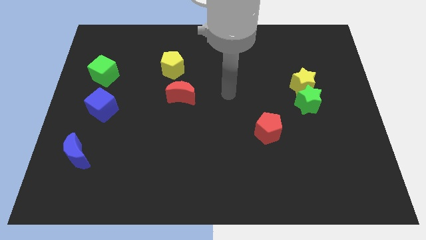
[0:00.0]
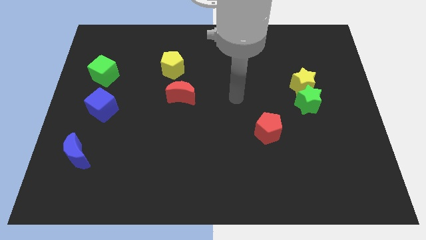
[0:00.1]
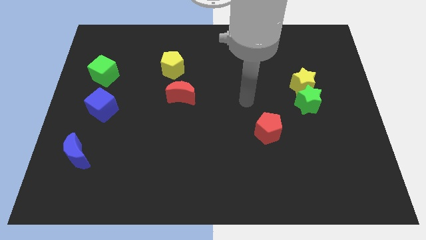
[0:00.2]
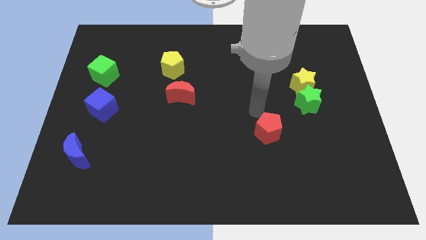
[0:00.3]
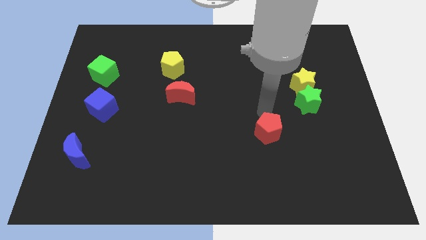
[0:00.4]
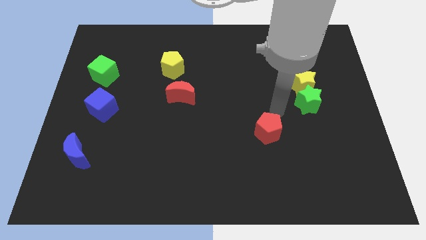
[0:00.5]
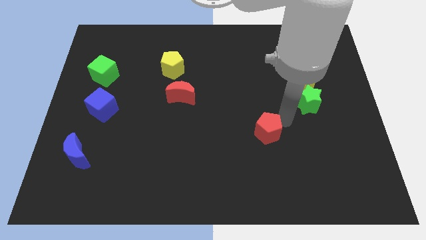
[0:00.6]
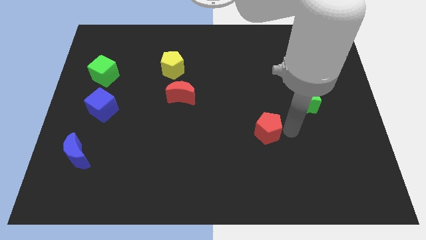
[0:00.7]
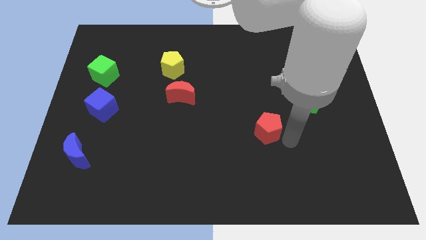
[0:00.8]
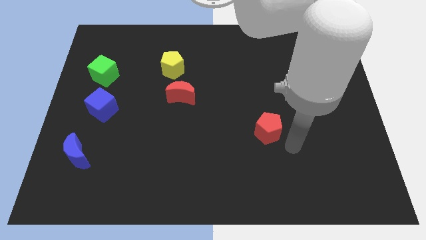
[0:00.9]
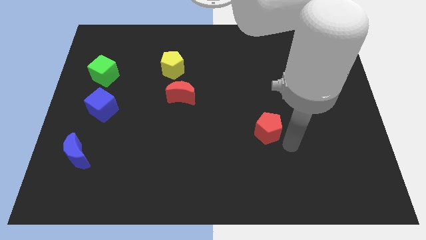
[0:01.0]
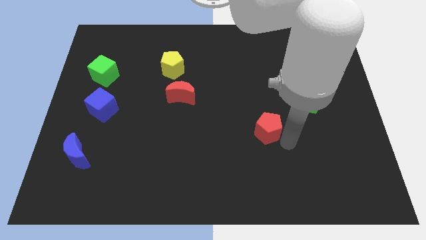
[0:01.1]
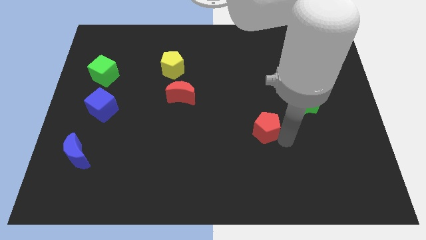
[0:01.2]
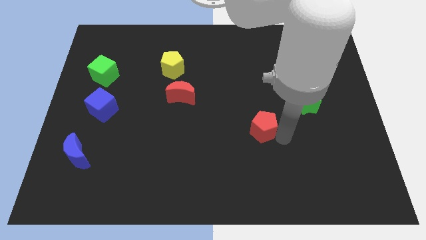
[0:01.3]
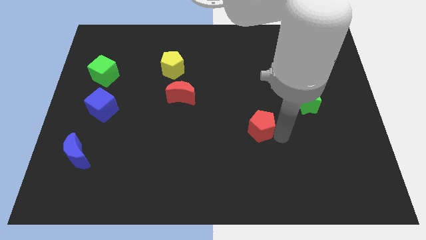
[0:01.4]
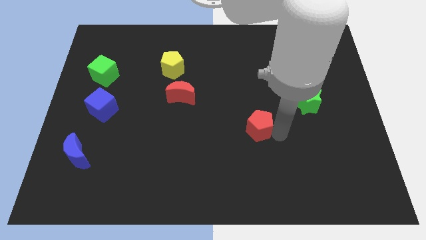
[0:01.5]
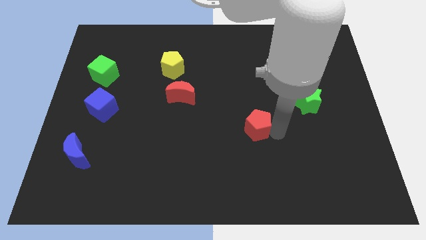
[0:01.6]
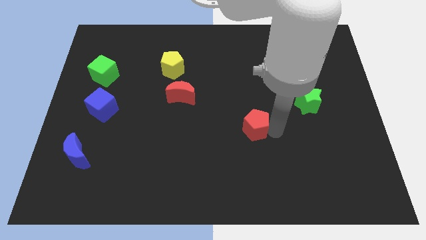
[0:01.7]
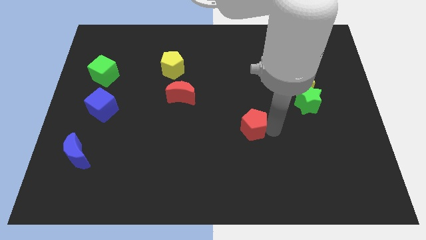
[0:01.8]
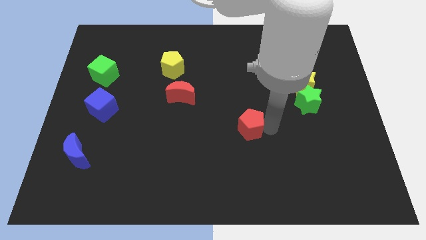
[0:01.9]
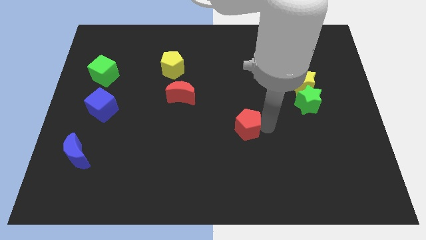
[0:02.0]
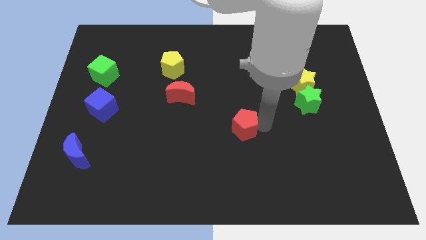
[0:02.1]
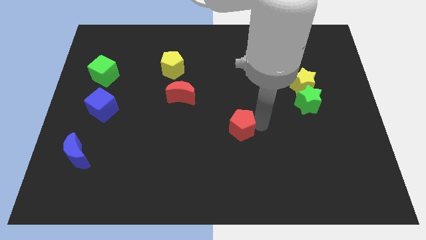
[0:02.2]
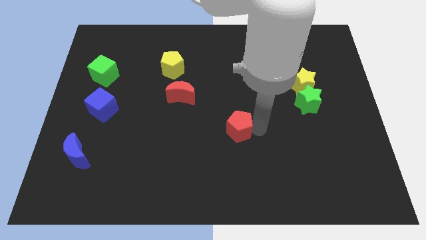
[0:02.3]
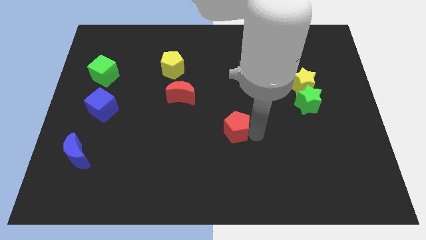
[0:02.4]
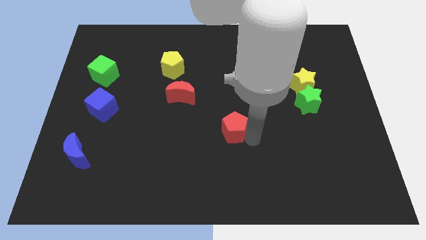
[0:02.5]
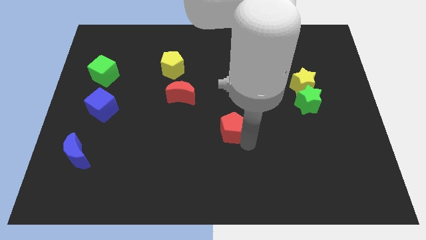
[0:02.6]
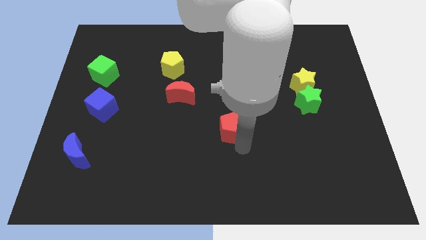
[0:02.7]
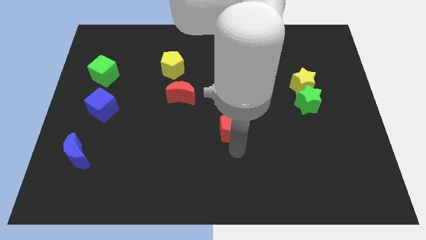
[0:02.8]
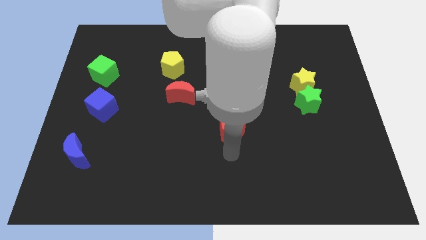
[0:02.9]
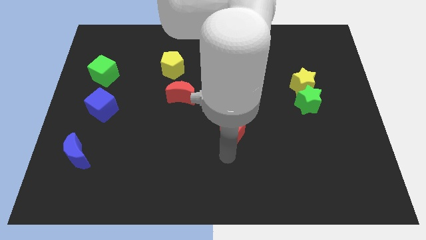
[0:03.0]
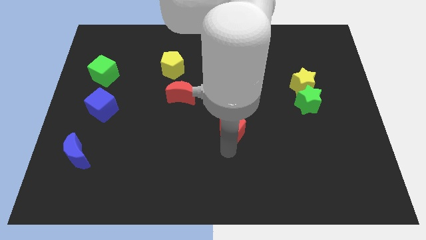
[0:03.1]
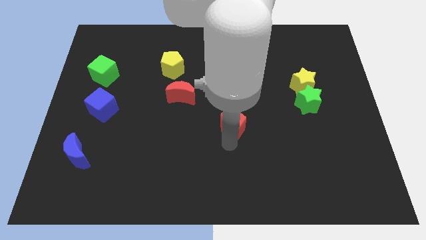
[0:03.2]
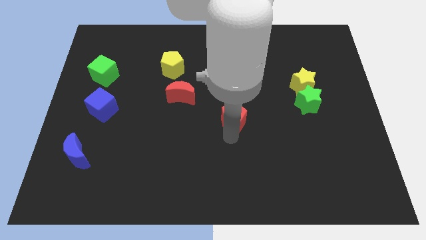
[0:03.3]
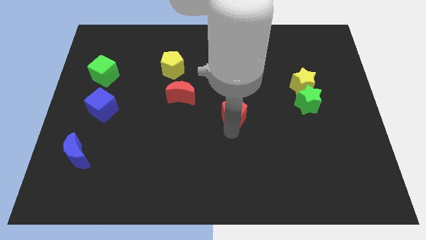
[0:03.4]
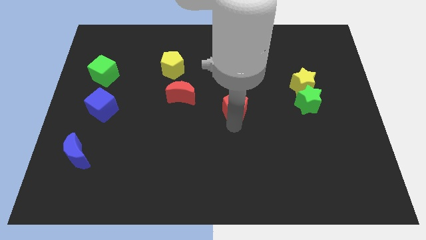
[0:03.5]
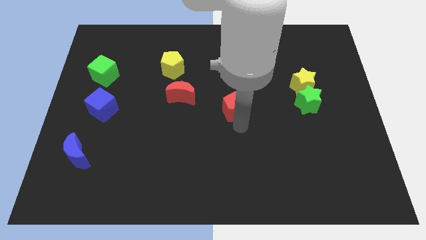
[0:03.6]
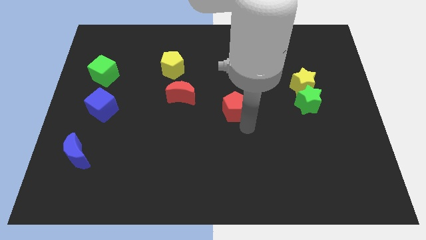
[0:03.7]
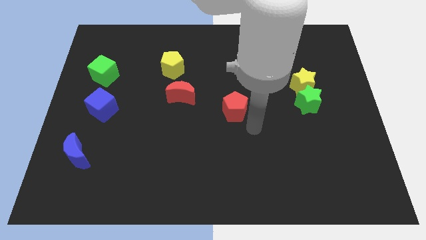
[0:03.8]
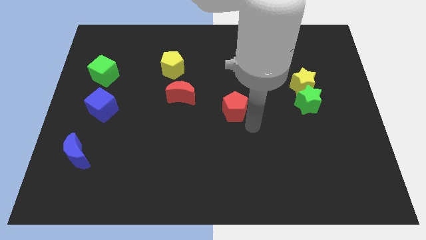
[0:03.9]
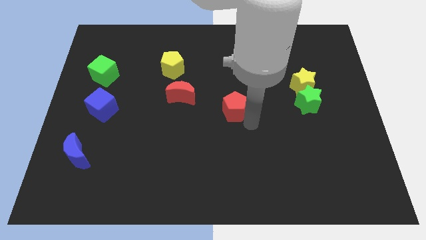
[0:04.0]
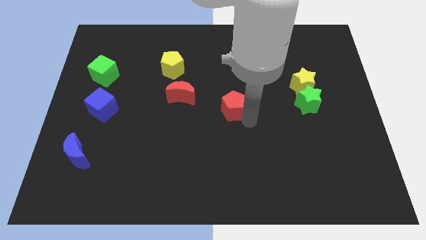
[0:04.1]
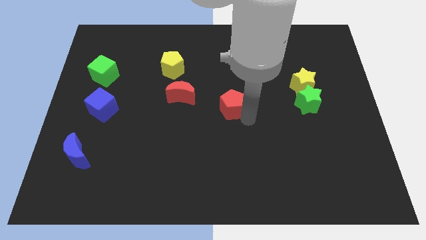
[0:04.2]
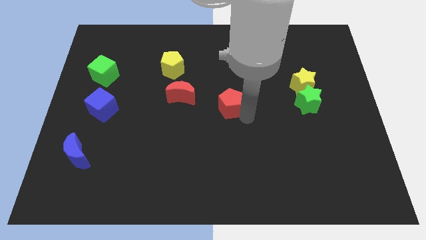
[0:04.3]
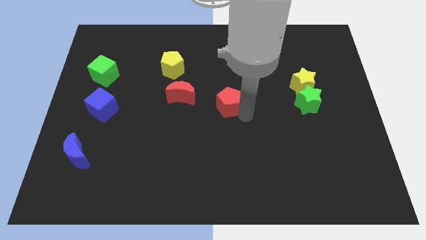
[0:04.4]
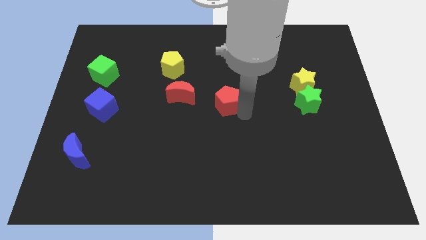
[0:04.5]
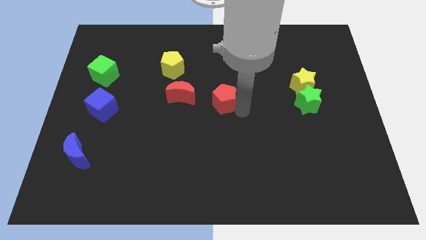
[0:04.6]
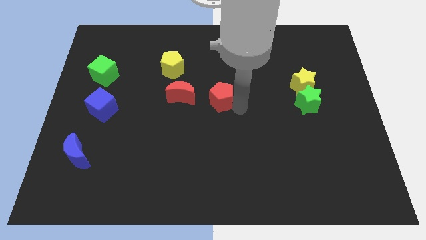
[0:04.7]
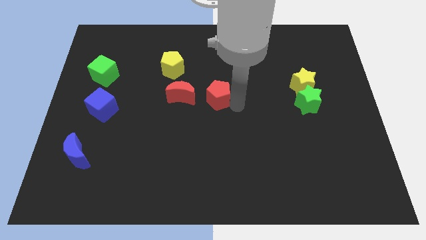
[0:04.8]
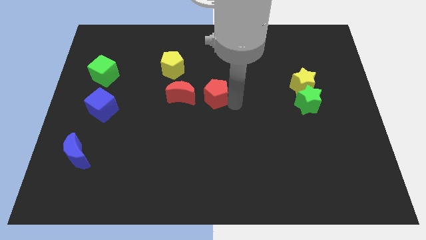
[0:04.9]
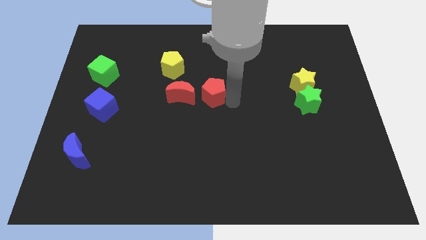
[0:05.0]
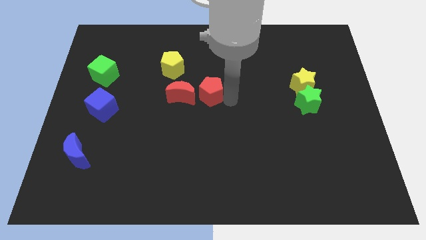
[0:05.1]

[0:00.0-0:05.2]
put the red pentagon to the top right of the red moon

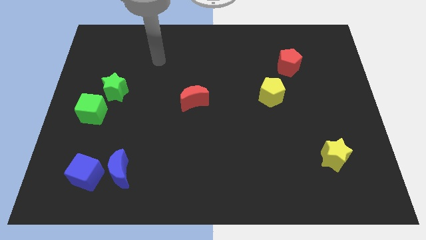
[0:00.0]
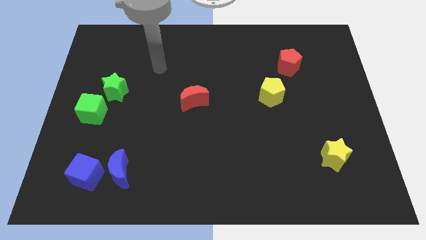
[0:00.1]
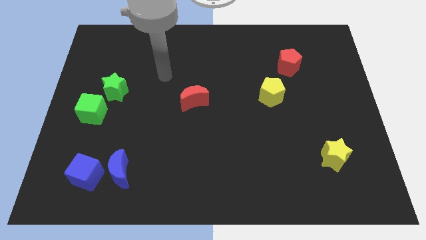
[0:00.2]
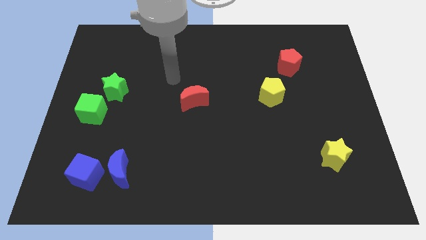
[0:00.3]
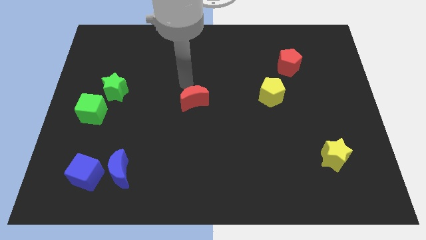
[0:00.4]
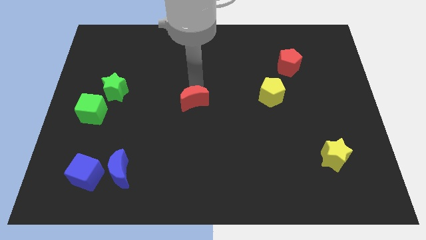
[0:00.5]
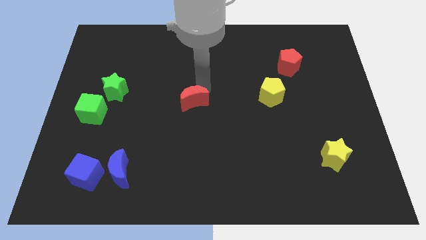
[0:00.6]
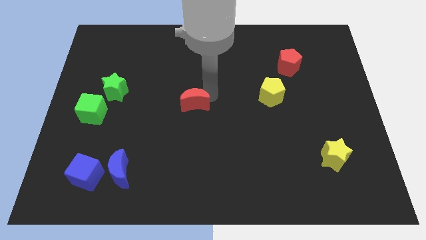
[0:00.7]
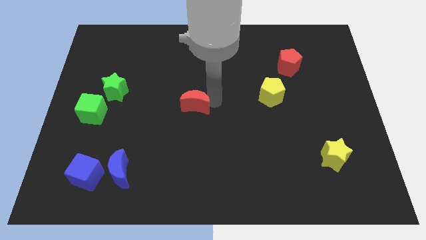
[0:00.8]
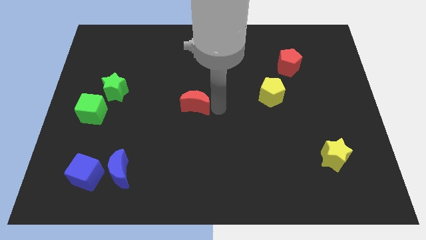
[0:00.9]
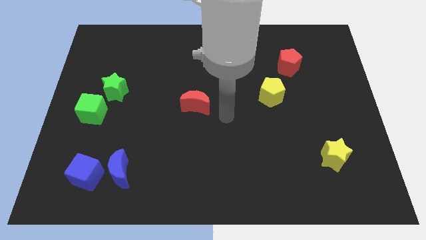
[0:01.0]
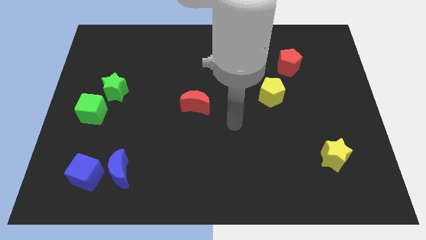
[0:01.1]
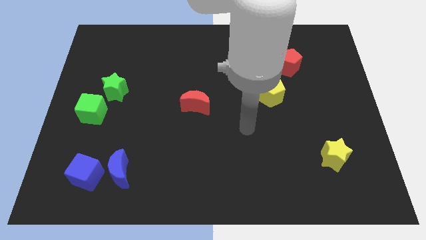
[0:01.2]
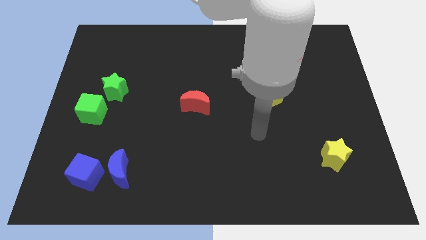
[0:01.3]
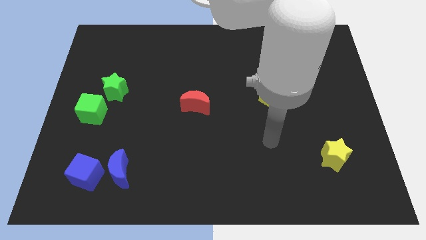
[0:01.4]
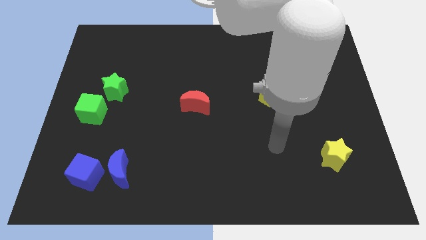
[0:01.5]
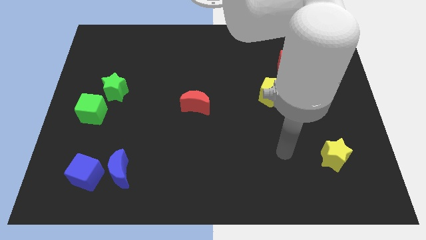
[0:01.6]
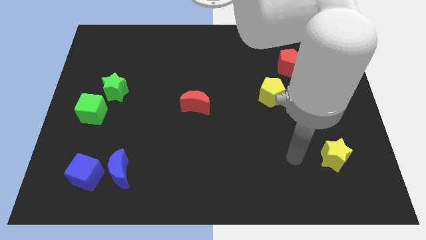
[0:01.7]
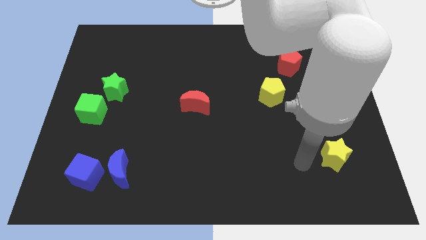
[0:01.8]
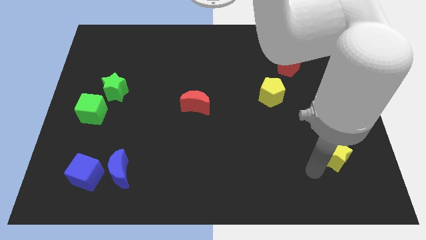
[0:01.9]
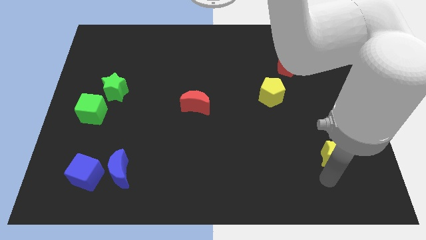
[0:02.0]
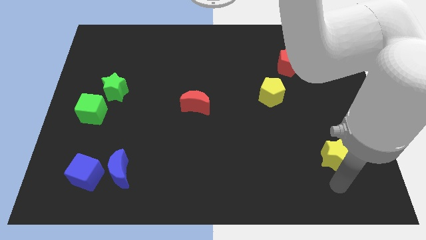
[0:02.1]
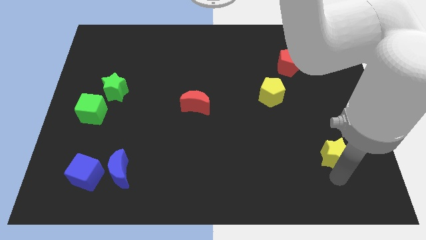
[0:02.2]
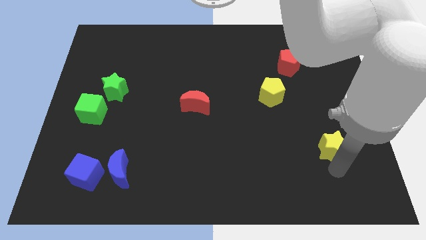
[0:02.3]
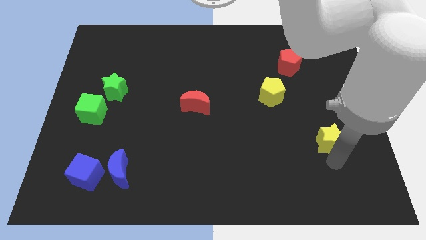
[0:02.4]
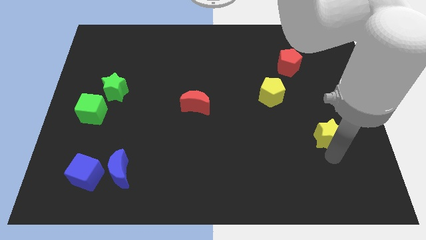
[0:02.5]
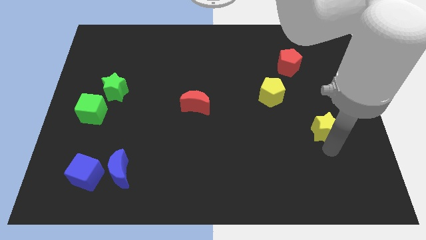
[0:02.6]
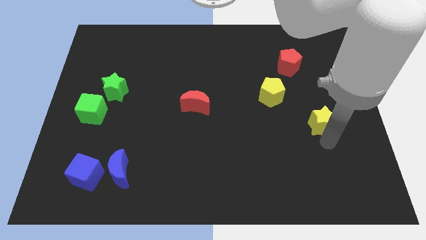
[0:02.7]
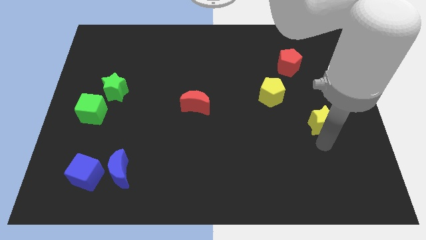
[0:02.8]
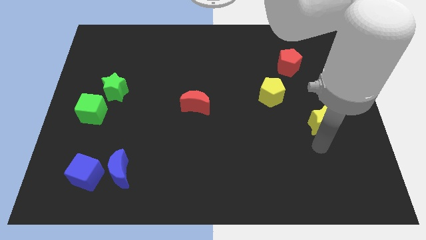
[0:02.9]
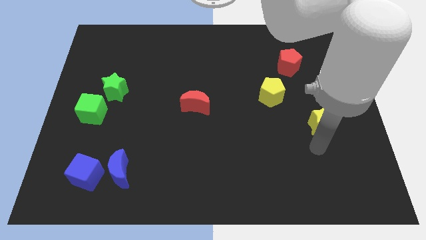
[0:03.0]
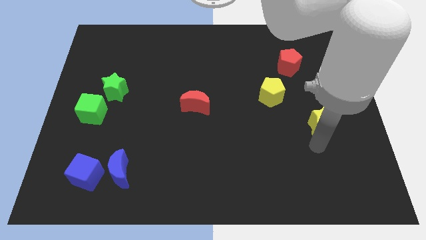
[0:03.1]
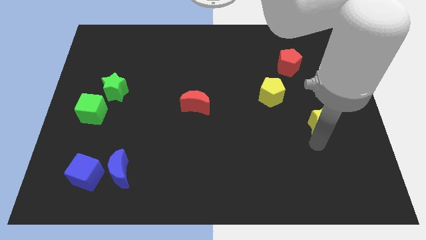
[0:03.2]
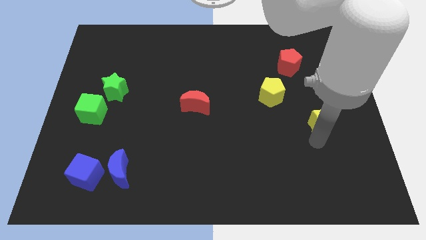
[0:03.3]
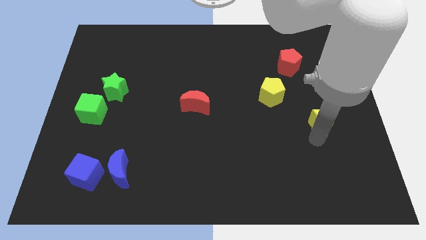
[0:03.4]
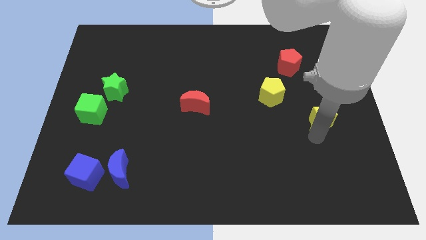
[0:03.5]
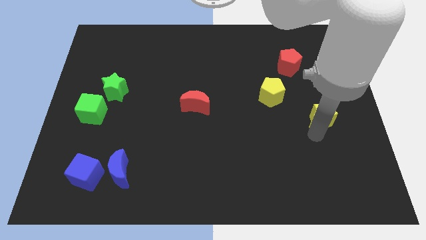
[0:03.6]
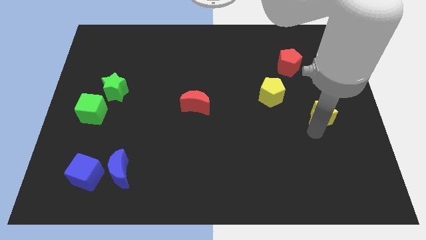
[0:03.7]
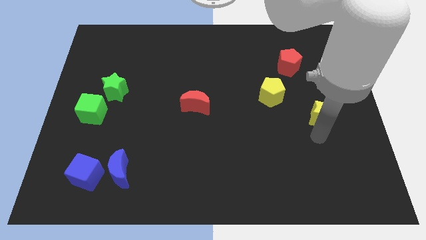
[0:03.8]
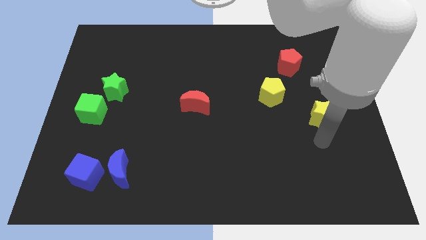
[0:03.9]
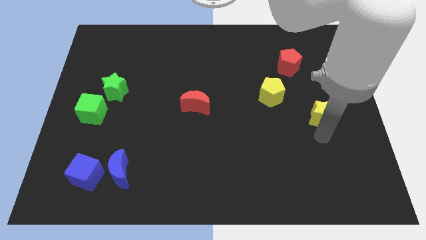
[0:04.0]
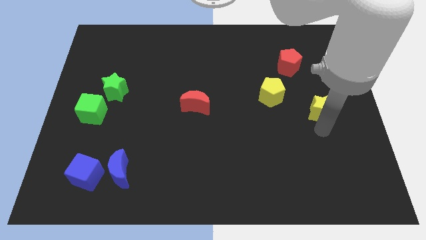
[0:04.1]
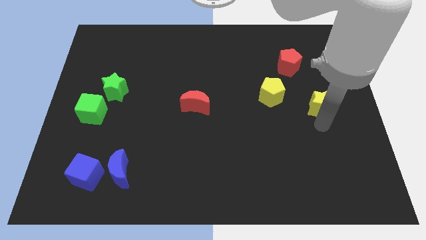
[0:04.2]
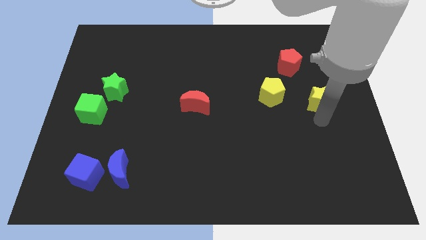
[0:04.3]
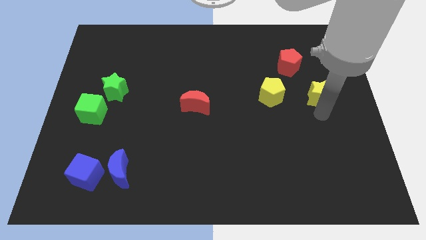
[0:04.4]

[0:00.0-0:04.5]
move the yellow star to the bottom right of the red pentagon
